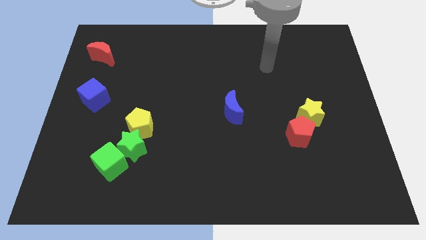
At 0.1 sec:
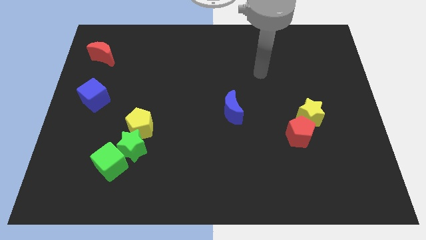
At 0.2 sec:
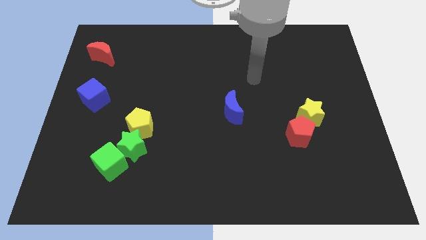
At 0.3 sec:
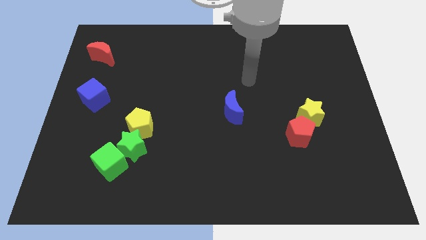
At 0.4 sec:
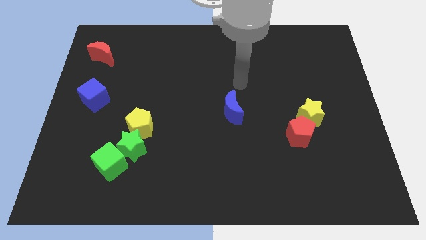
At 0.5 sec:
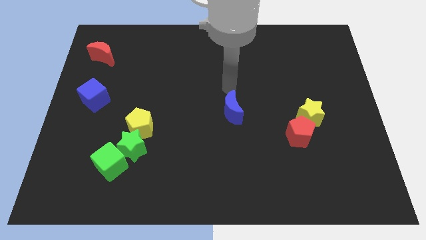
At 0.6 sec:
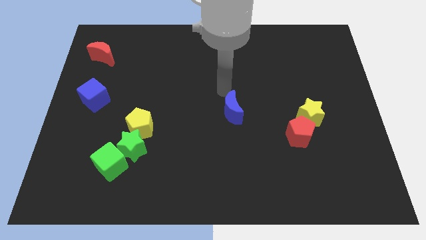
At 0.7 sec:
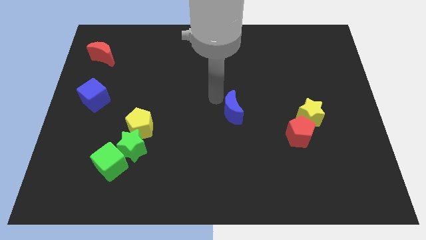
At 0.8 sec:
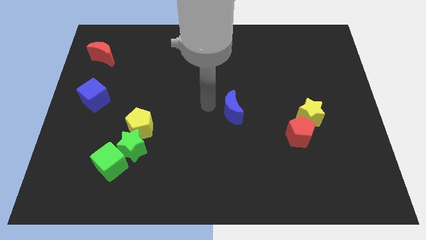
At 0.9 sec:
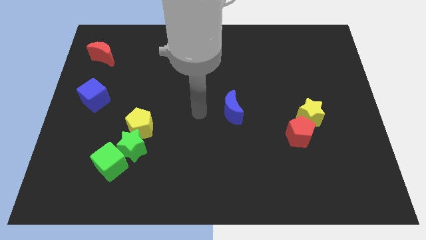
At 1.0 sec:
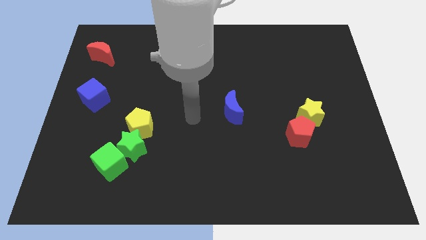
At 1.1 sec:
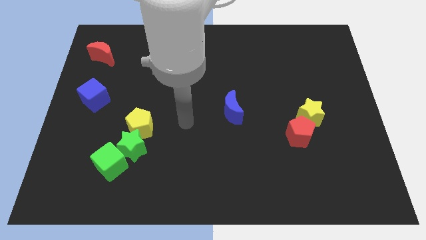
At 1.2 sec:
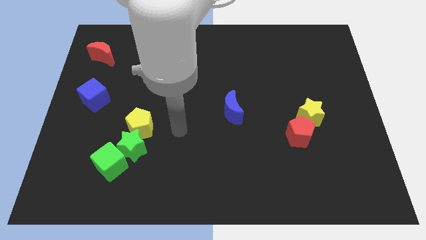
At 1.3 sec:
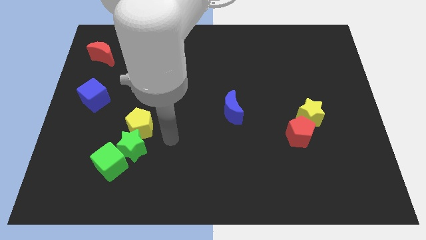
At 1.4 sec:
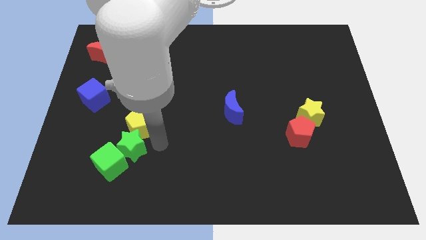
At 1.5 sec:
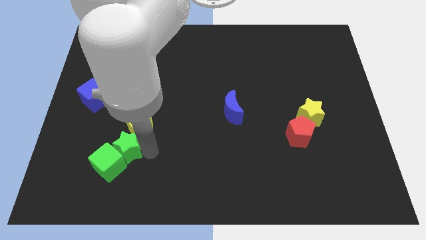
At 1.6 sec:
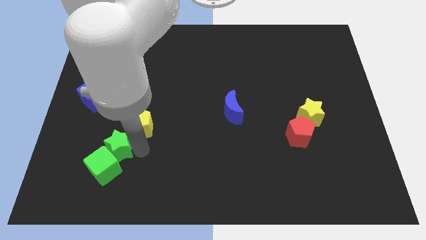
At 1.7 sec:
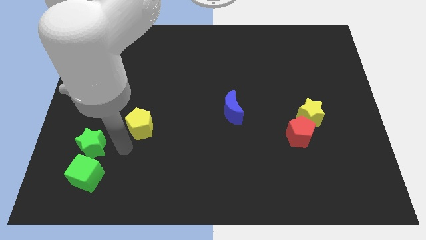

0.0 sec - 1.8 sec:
pull the yellow pentagon apart from the green star

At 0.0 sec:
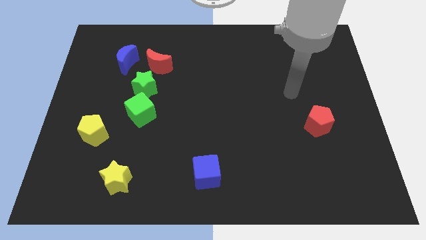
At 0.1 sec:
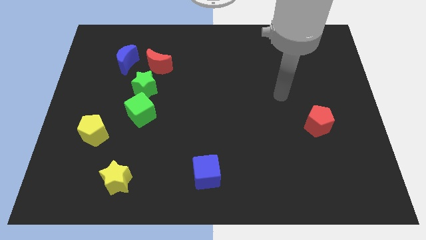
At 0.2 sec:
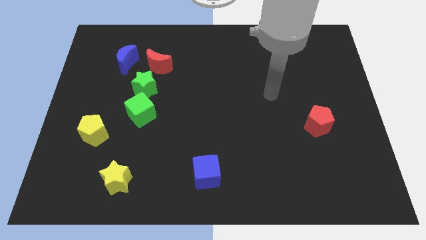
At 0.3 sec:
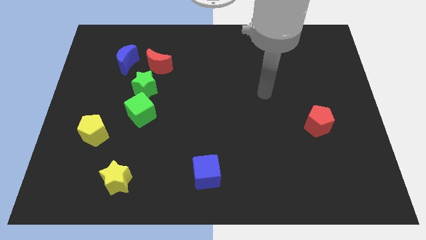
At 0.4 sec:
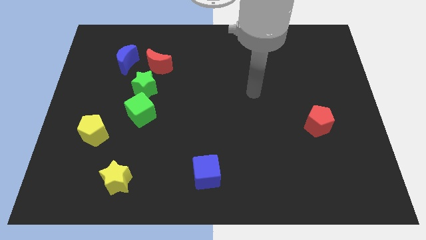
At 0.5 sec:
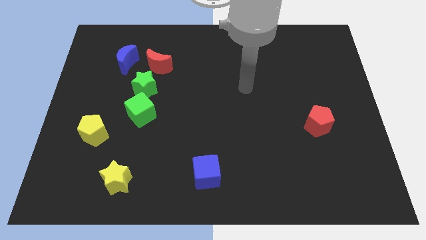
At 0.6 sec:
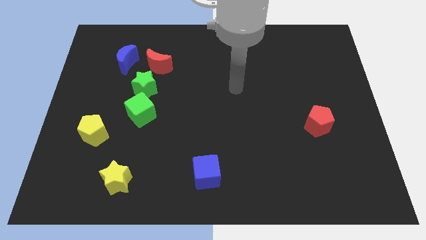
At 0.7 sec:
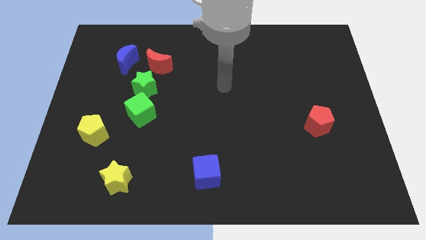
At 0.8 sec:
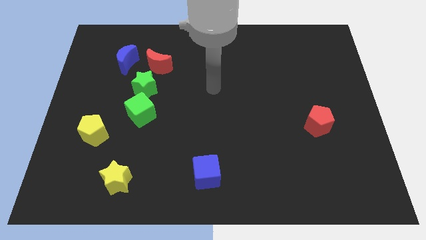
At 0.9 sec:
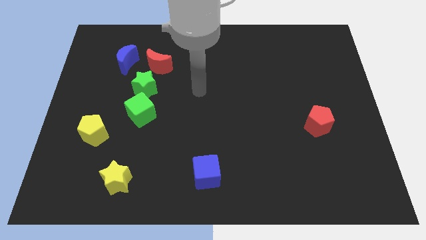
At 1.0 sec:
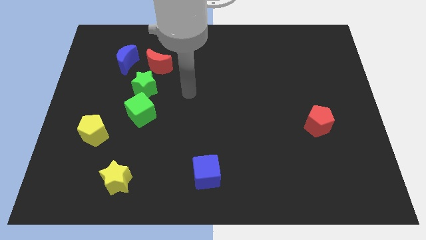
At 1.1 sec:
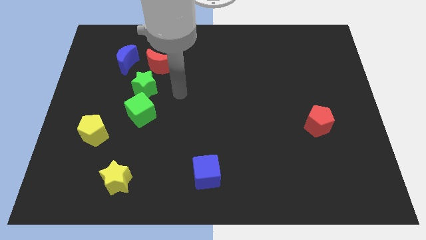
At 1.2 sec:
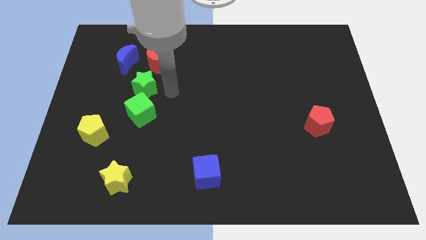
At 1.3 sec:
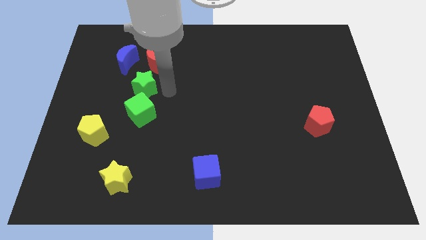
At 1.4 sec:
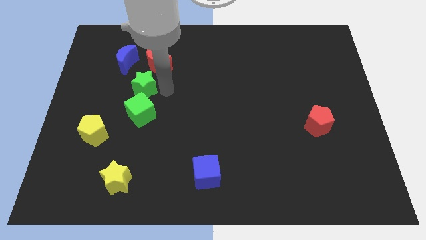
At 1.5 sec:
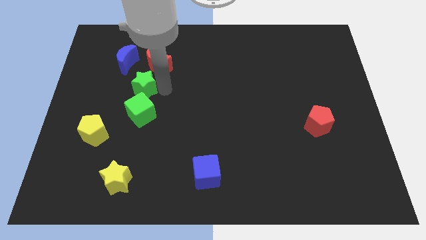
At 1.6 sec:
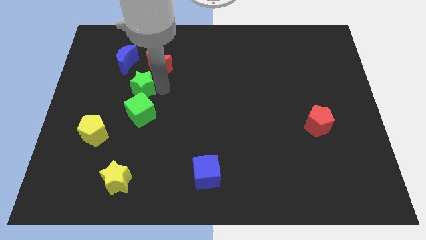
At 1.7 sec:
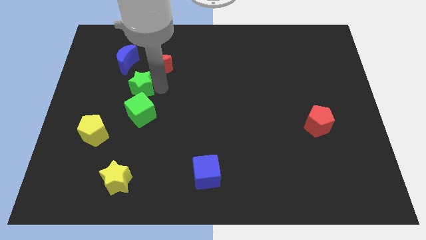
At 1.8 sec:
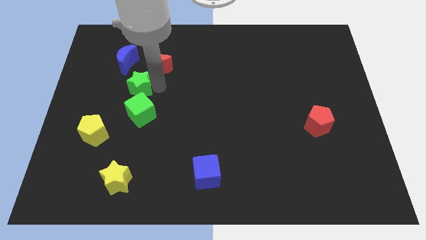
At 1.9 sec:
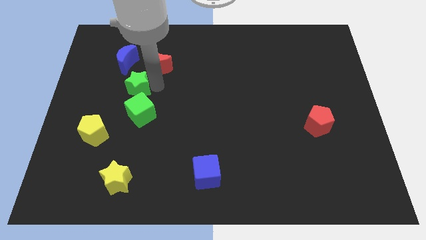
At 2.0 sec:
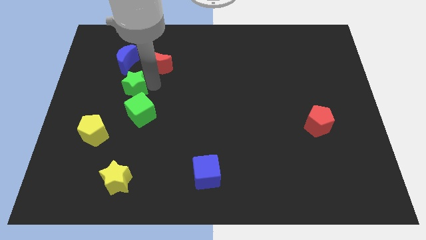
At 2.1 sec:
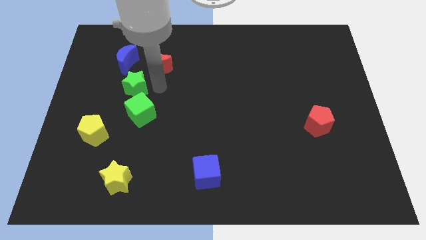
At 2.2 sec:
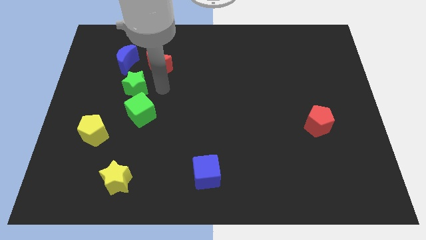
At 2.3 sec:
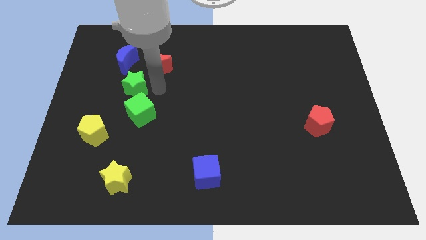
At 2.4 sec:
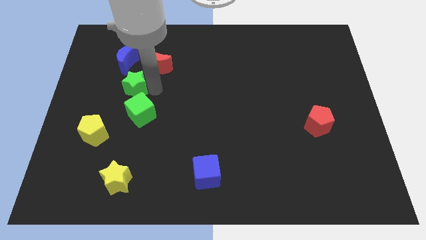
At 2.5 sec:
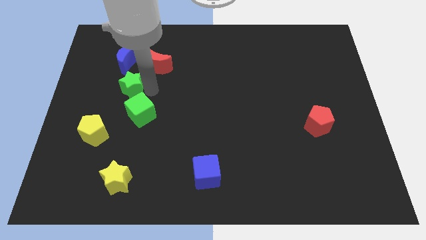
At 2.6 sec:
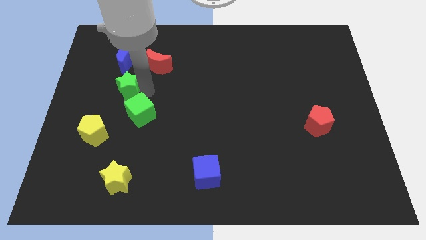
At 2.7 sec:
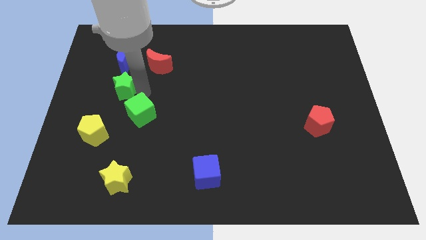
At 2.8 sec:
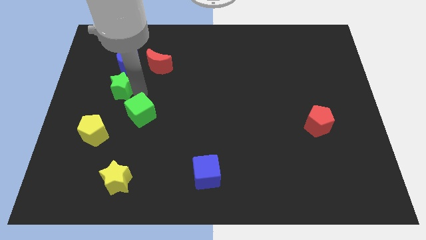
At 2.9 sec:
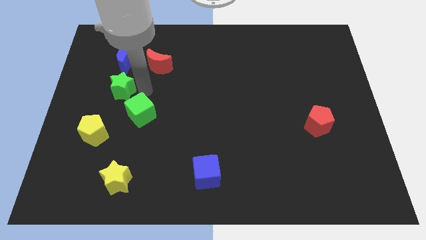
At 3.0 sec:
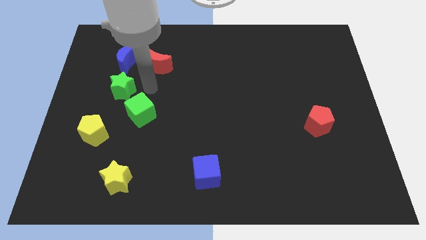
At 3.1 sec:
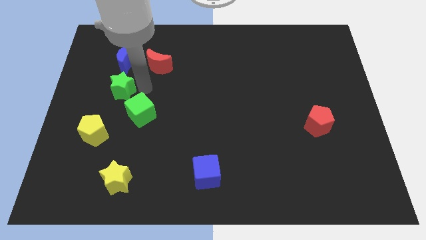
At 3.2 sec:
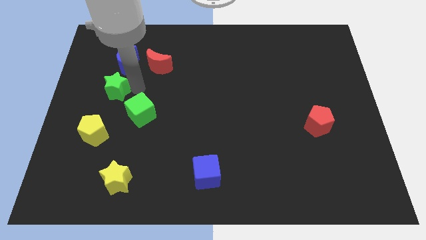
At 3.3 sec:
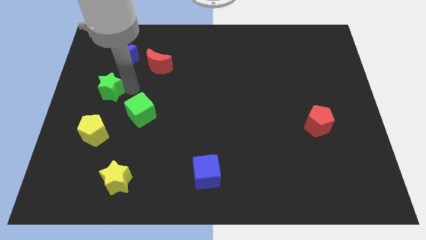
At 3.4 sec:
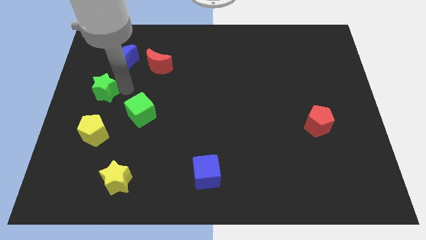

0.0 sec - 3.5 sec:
move the green star away from the red moon and green cube

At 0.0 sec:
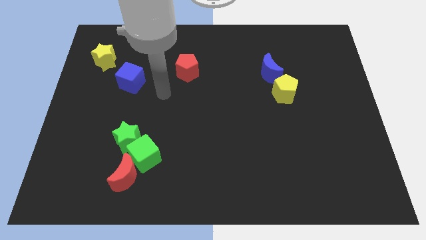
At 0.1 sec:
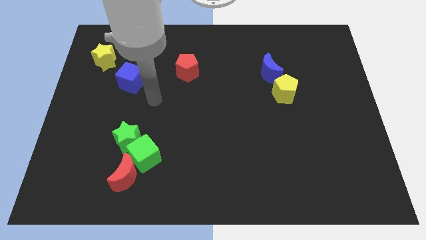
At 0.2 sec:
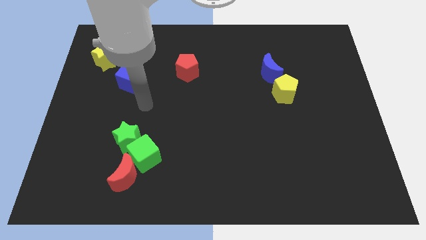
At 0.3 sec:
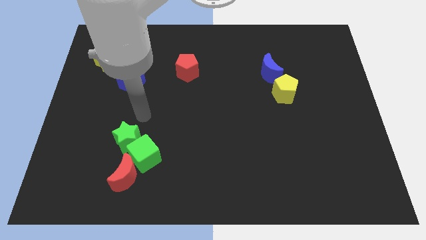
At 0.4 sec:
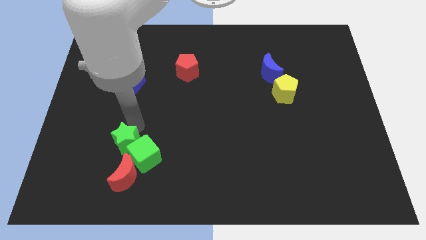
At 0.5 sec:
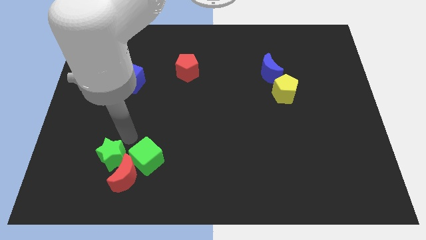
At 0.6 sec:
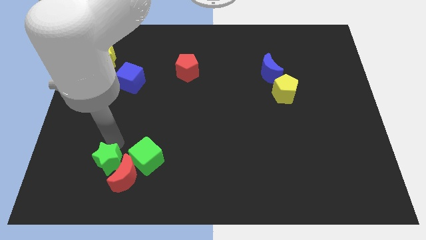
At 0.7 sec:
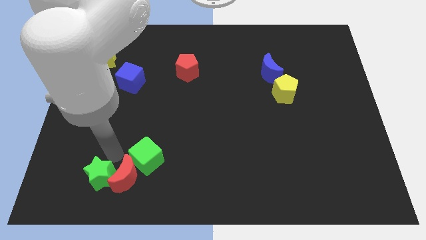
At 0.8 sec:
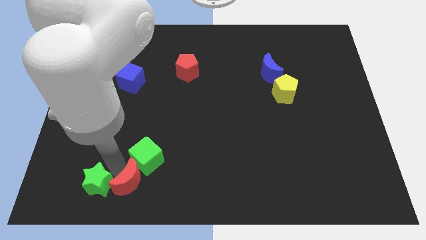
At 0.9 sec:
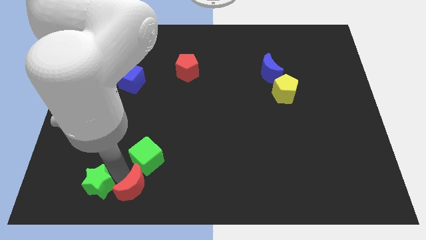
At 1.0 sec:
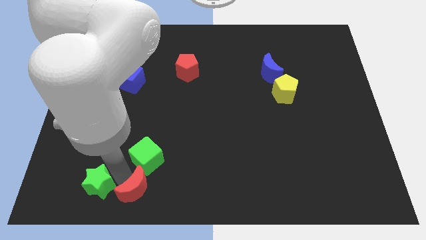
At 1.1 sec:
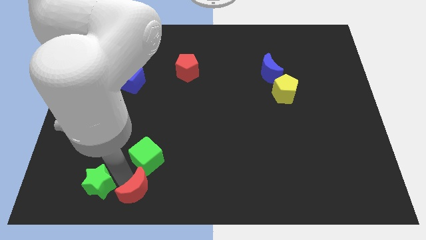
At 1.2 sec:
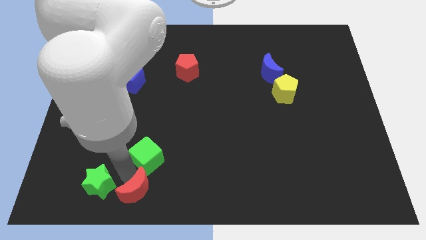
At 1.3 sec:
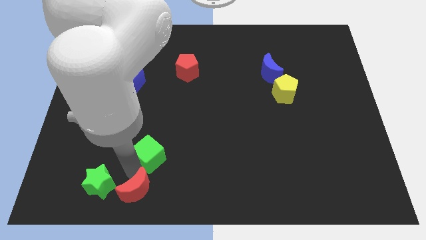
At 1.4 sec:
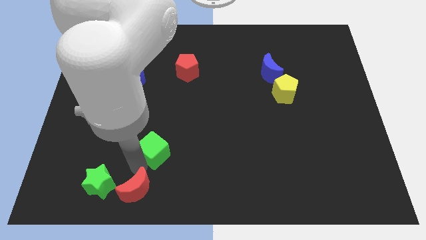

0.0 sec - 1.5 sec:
separate the green cube from the red moon and green star

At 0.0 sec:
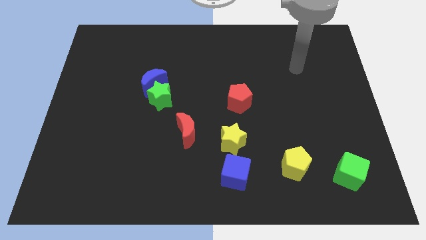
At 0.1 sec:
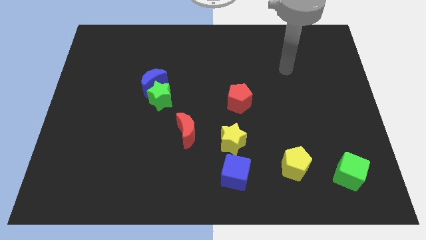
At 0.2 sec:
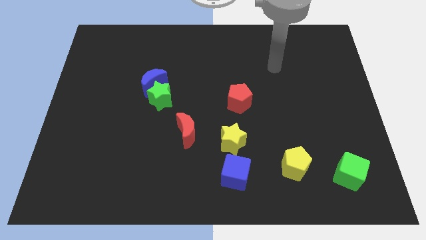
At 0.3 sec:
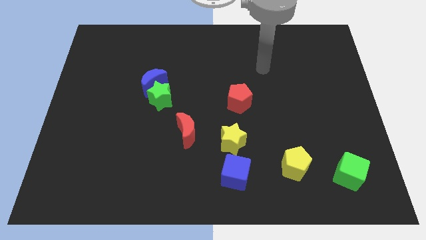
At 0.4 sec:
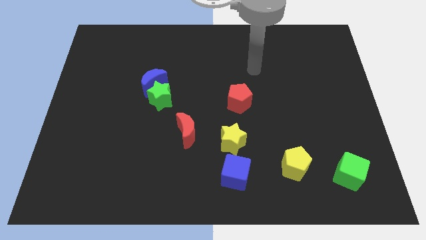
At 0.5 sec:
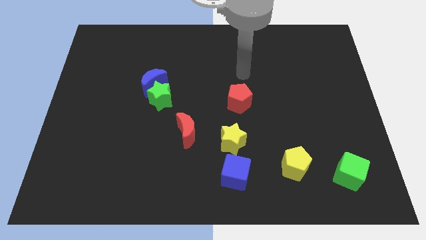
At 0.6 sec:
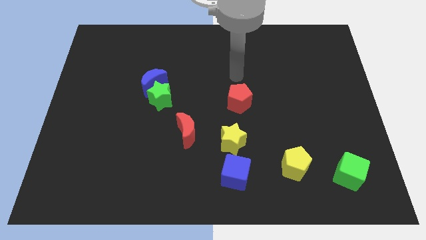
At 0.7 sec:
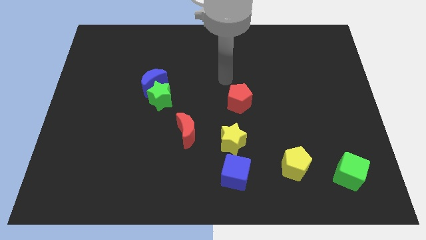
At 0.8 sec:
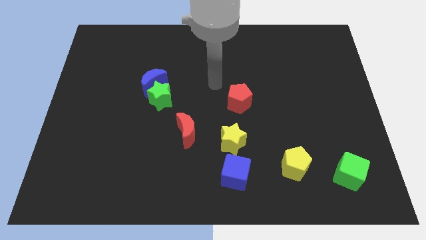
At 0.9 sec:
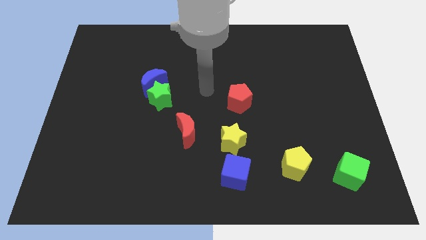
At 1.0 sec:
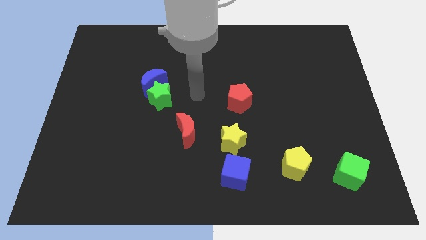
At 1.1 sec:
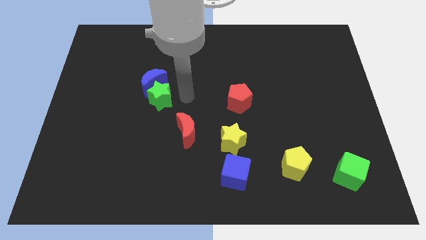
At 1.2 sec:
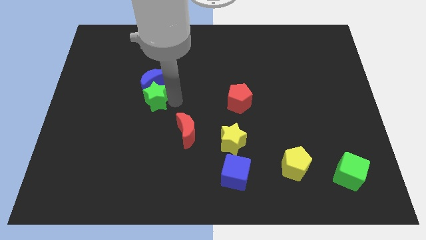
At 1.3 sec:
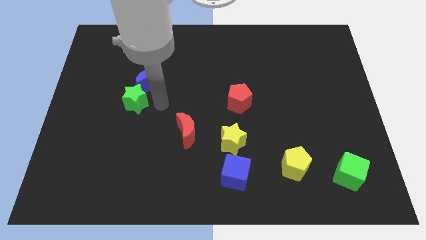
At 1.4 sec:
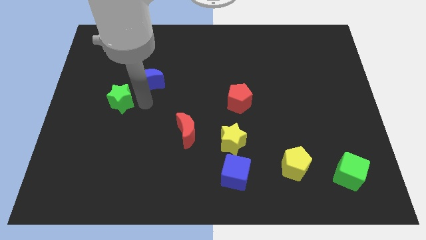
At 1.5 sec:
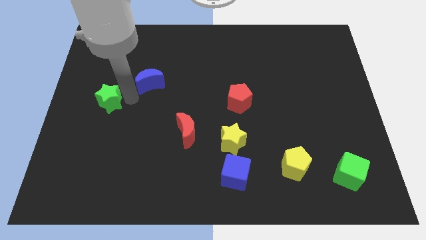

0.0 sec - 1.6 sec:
pull the blue moon apart from the green star

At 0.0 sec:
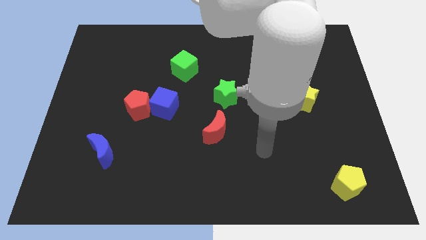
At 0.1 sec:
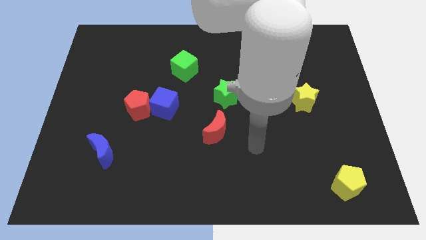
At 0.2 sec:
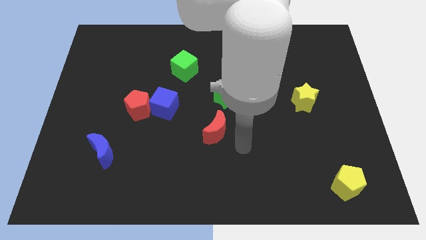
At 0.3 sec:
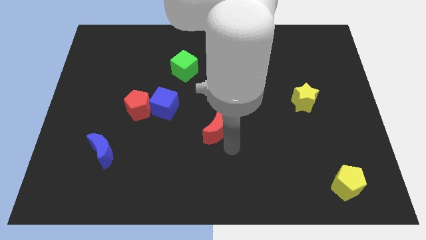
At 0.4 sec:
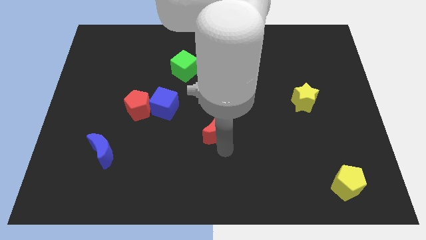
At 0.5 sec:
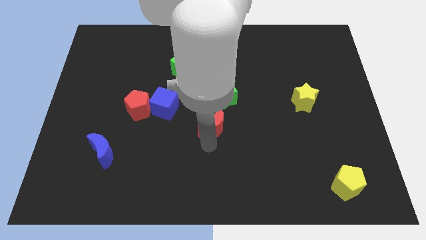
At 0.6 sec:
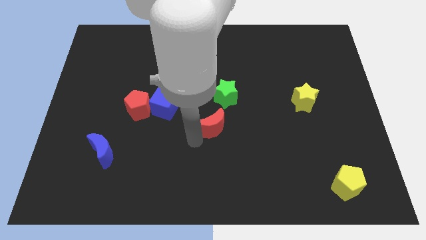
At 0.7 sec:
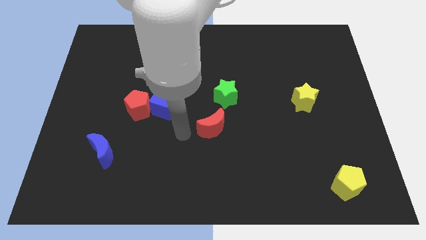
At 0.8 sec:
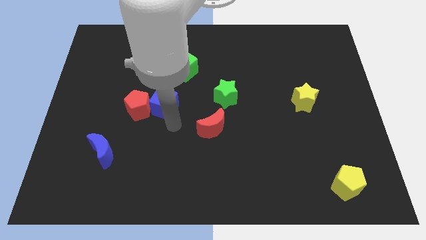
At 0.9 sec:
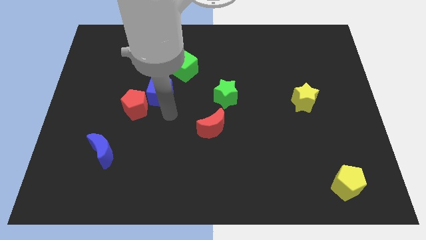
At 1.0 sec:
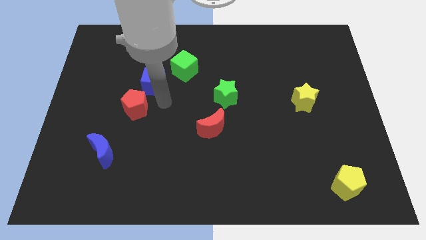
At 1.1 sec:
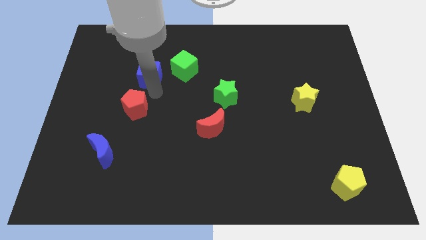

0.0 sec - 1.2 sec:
pull the red pentagon apart from the blue cube
